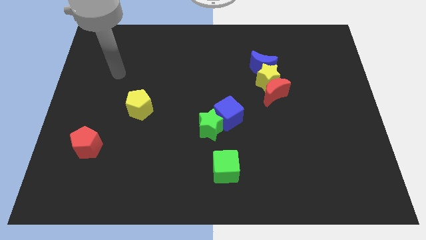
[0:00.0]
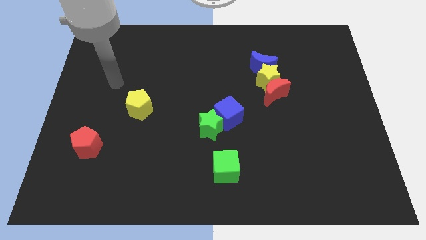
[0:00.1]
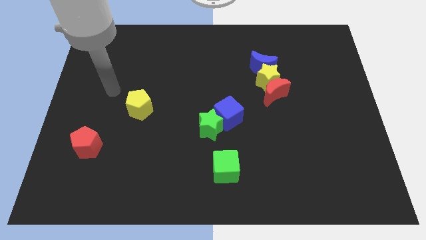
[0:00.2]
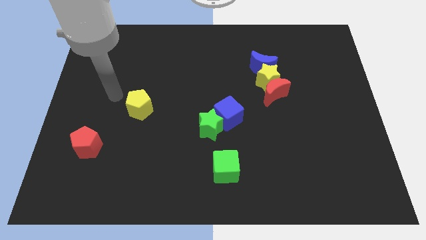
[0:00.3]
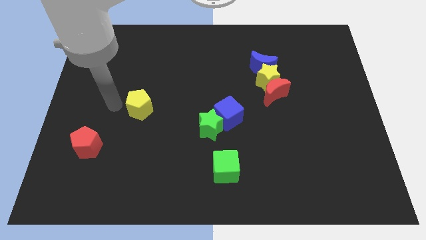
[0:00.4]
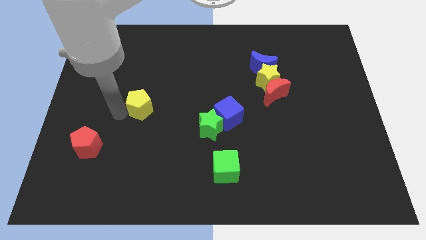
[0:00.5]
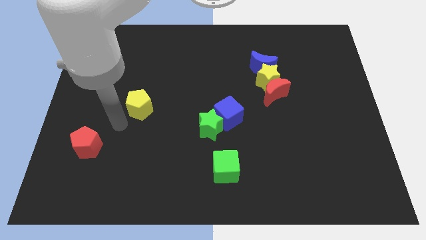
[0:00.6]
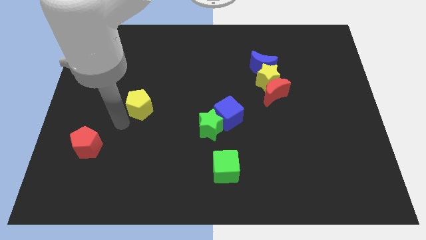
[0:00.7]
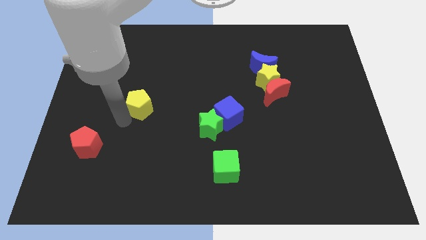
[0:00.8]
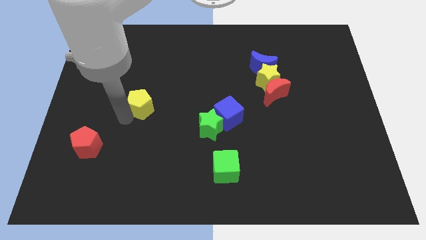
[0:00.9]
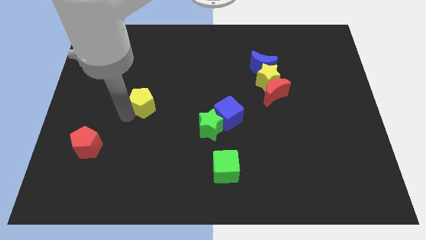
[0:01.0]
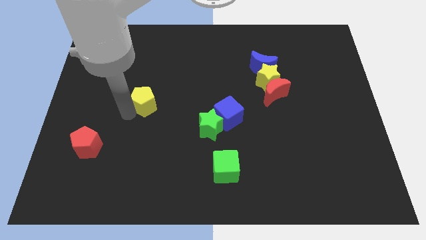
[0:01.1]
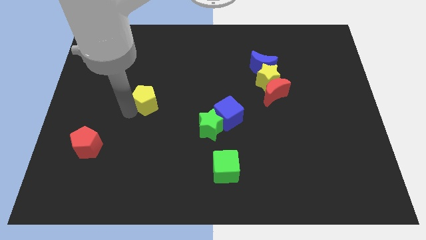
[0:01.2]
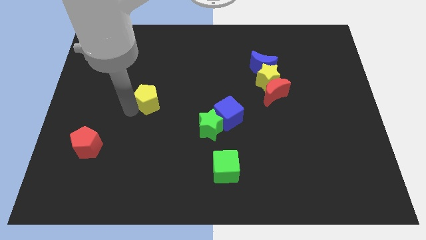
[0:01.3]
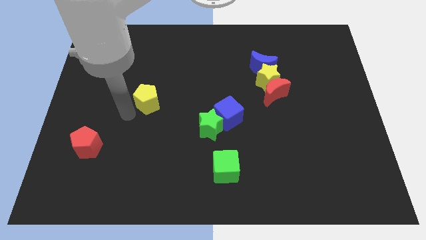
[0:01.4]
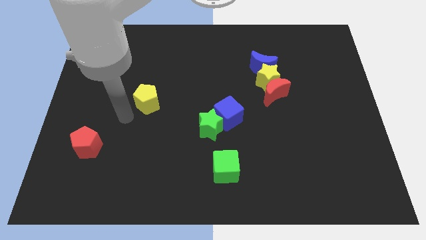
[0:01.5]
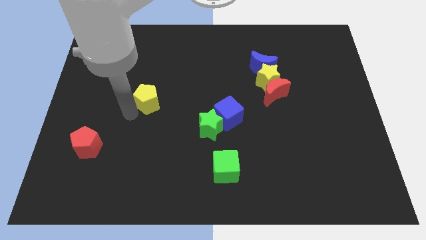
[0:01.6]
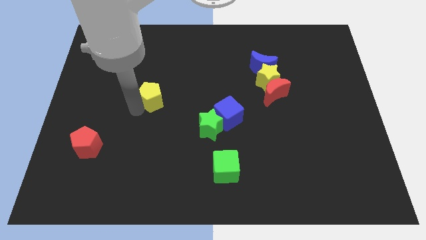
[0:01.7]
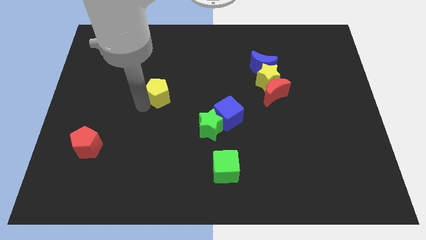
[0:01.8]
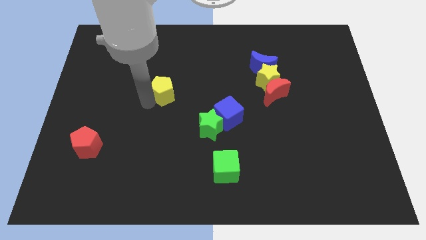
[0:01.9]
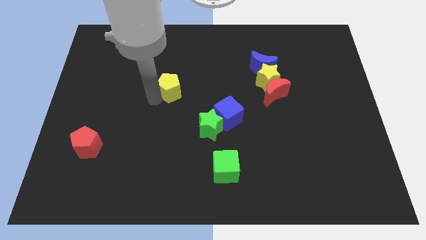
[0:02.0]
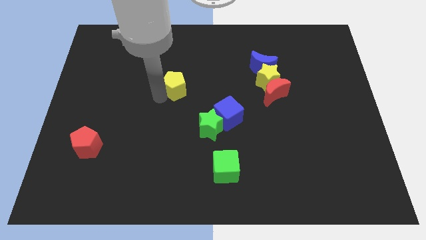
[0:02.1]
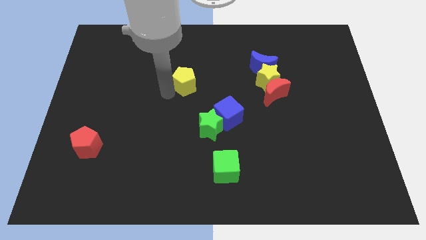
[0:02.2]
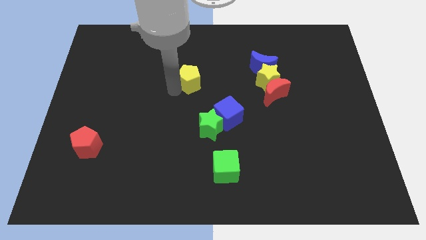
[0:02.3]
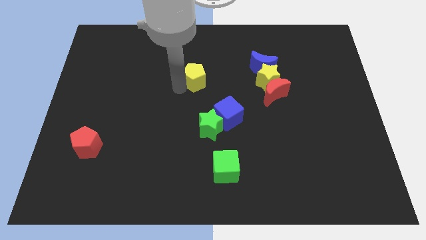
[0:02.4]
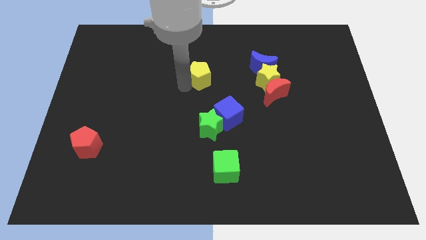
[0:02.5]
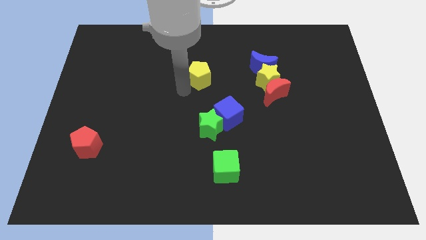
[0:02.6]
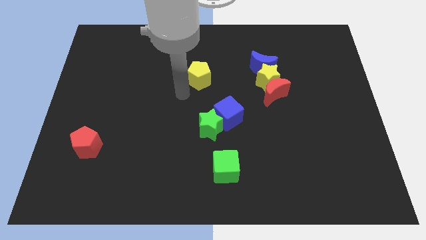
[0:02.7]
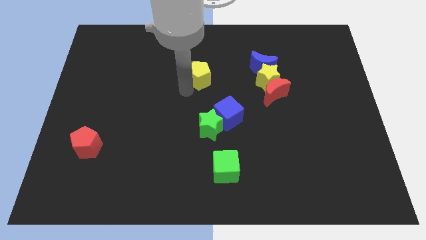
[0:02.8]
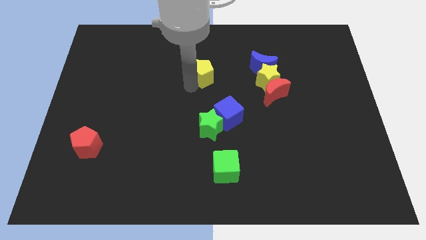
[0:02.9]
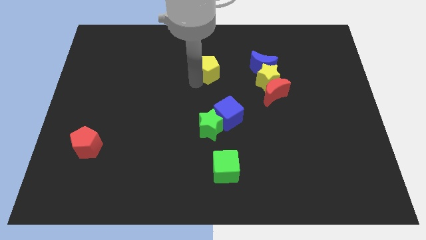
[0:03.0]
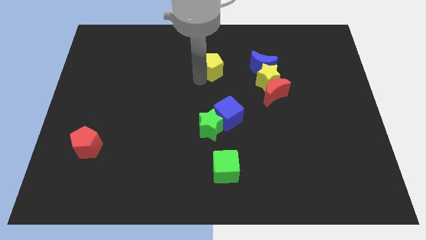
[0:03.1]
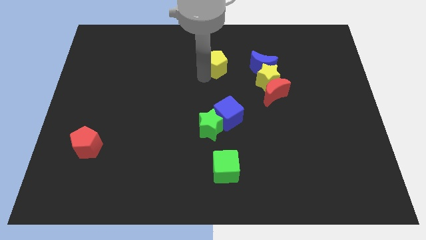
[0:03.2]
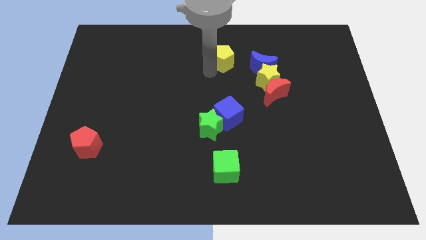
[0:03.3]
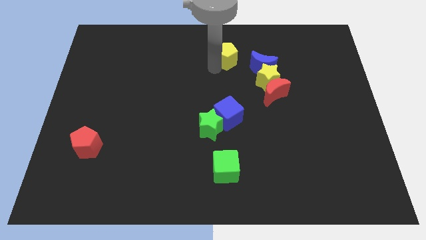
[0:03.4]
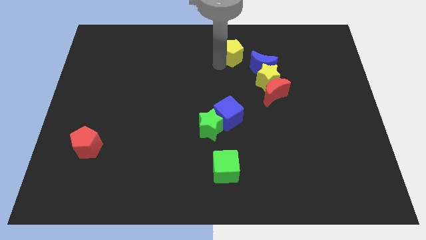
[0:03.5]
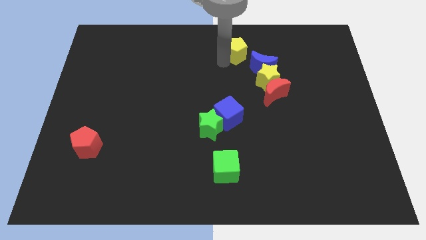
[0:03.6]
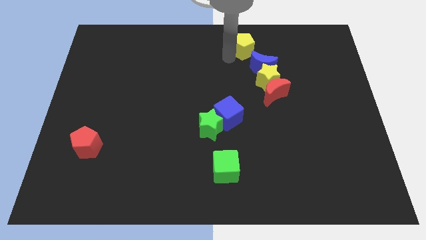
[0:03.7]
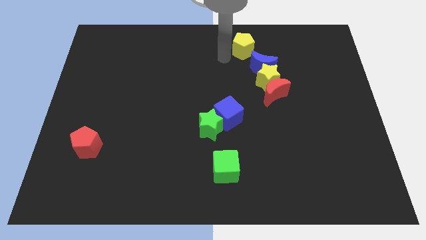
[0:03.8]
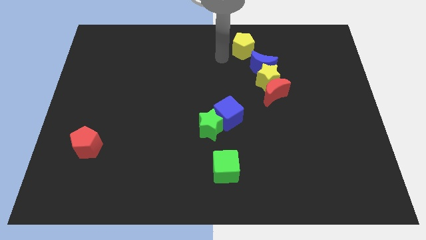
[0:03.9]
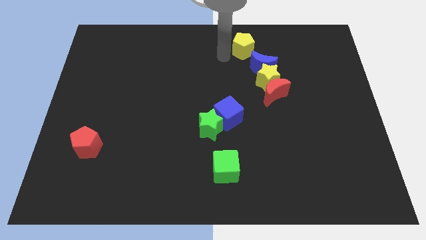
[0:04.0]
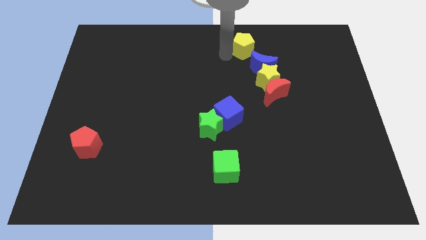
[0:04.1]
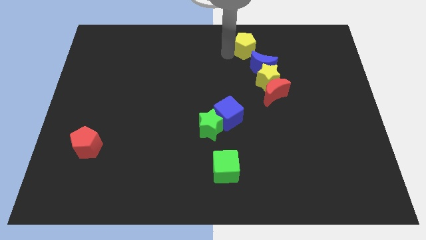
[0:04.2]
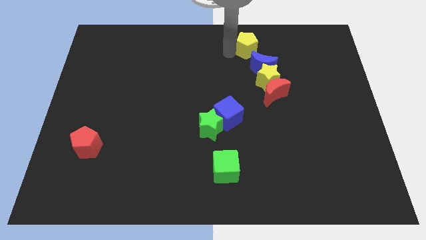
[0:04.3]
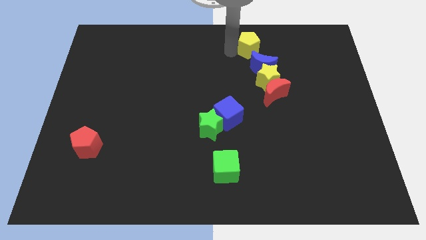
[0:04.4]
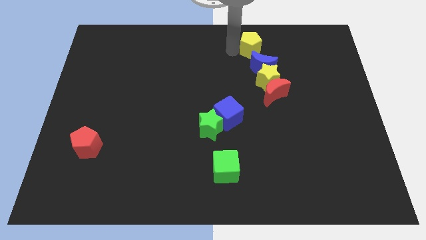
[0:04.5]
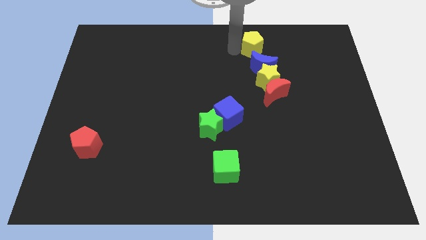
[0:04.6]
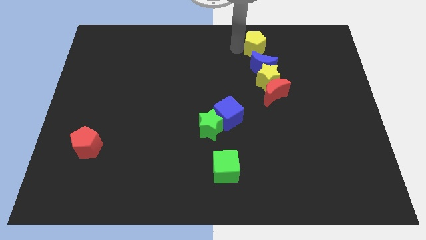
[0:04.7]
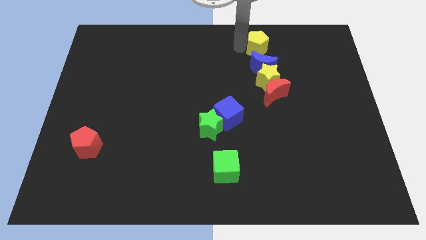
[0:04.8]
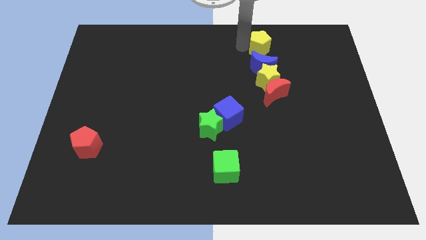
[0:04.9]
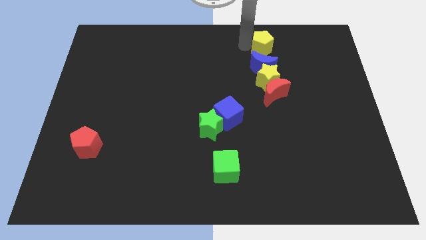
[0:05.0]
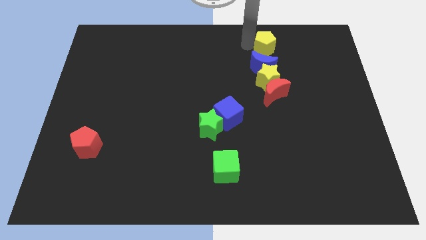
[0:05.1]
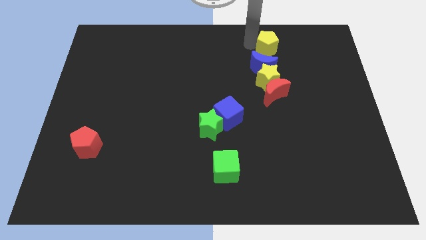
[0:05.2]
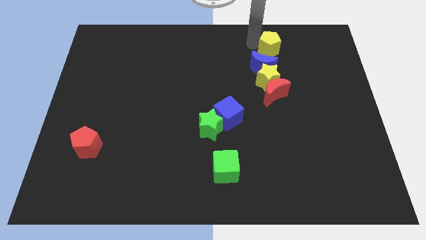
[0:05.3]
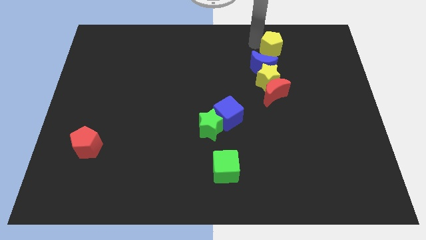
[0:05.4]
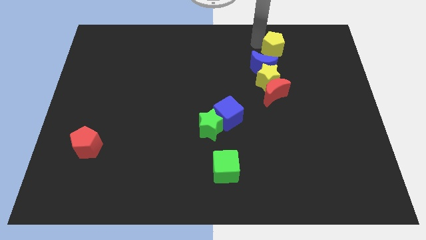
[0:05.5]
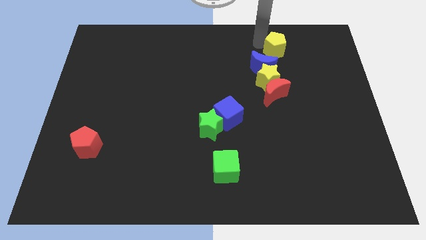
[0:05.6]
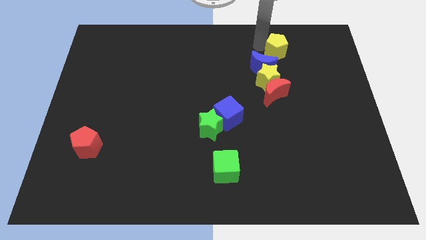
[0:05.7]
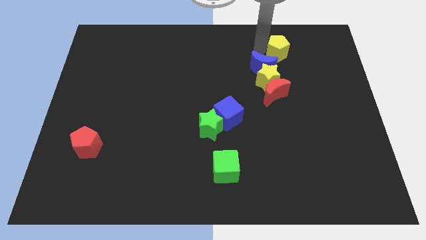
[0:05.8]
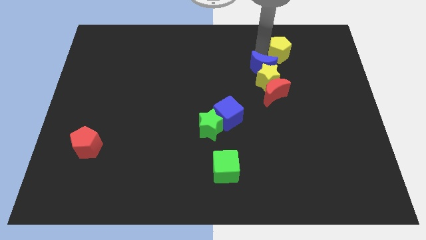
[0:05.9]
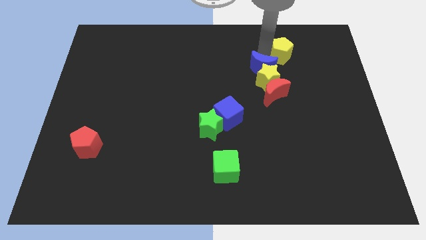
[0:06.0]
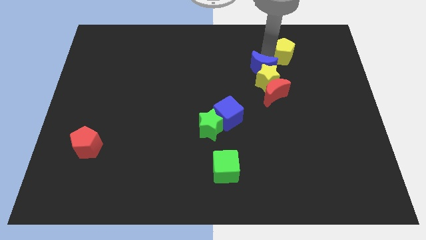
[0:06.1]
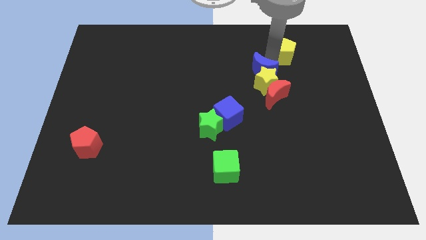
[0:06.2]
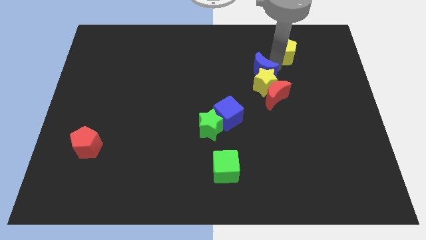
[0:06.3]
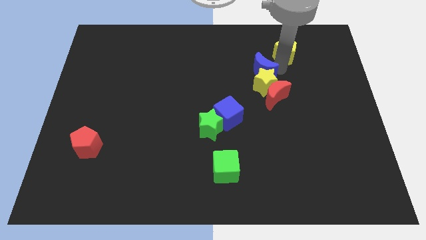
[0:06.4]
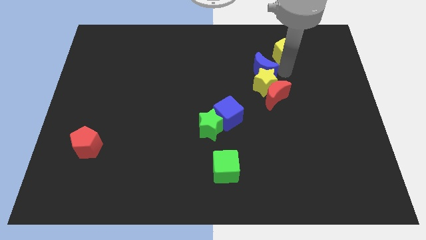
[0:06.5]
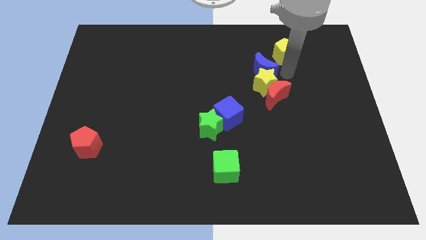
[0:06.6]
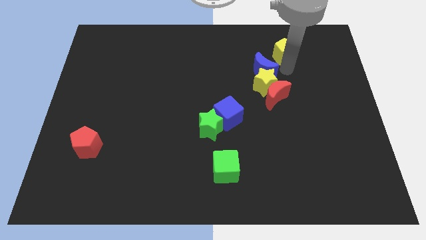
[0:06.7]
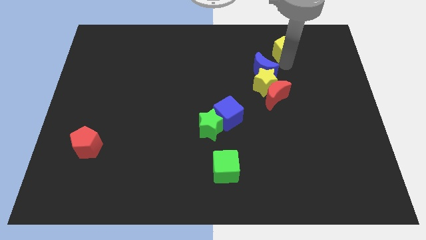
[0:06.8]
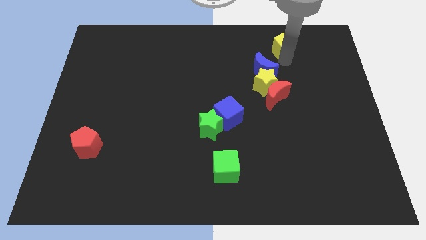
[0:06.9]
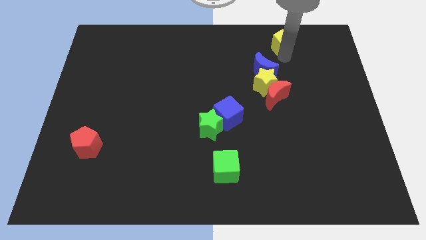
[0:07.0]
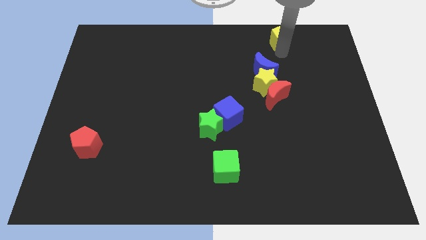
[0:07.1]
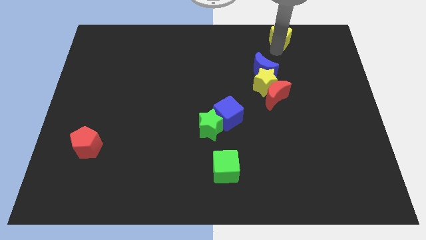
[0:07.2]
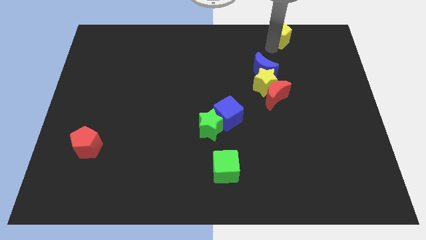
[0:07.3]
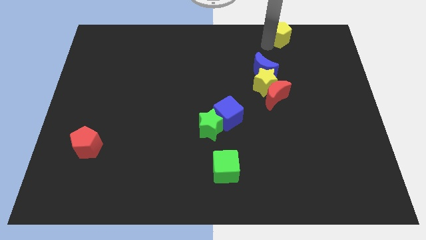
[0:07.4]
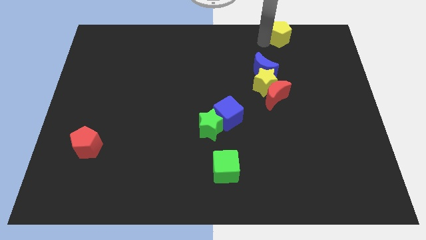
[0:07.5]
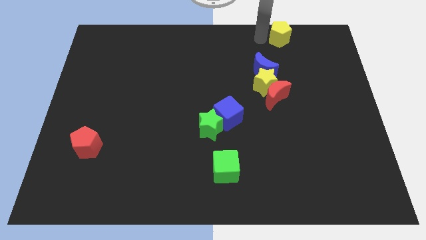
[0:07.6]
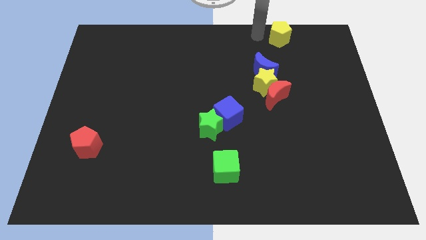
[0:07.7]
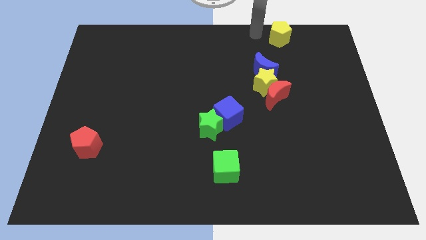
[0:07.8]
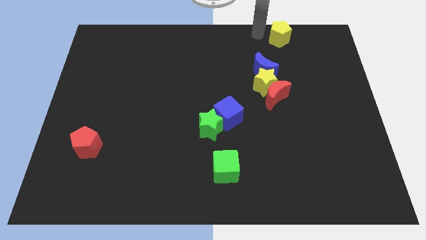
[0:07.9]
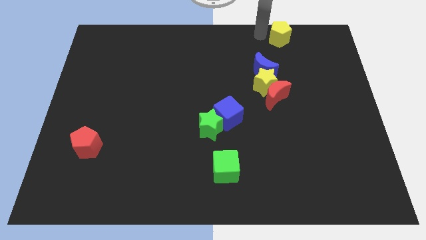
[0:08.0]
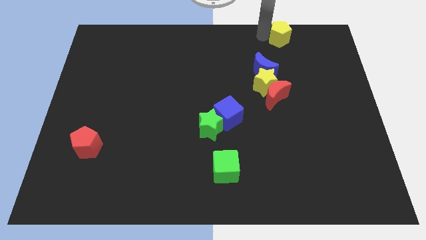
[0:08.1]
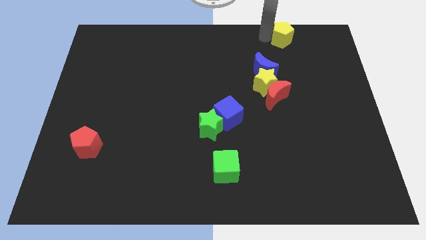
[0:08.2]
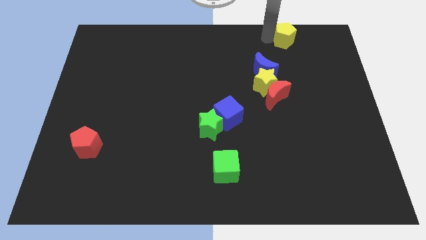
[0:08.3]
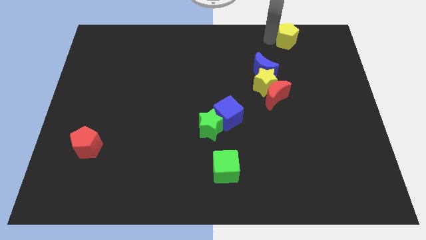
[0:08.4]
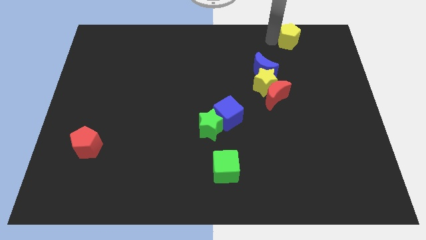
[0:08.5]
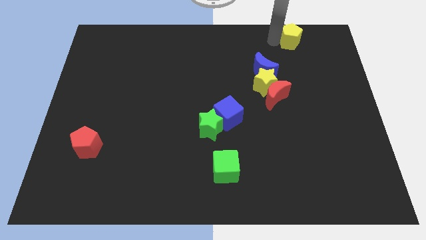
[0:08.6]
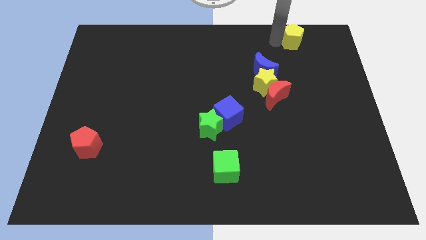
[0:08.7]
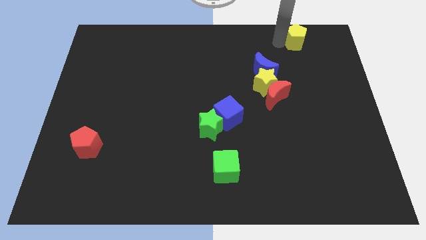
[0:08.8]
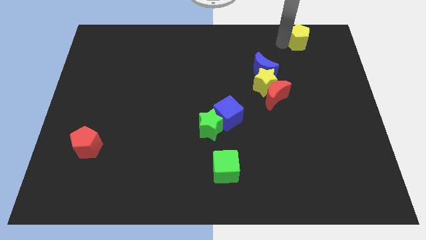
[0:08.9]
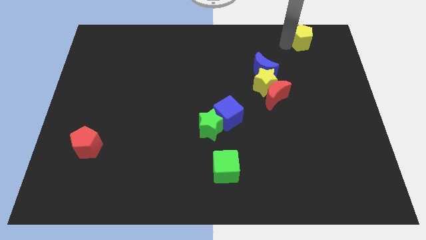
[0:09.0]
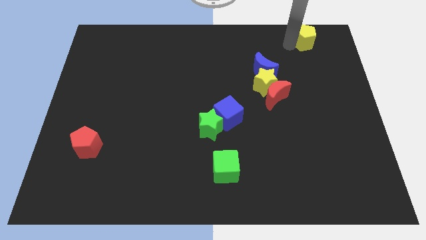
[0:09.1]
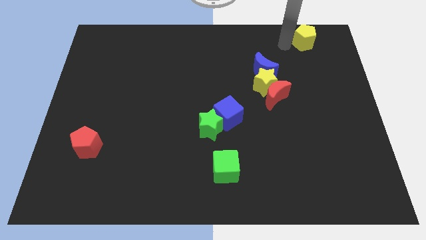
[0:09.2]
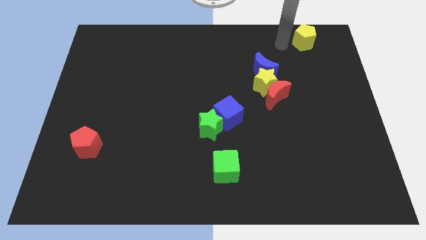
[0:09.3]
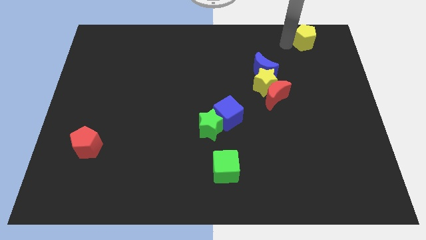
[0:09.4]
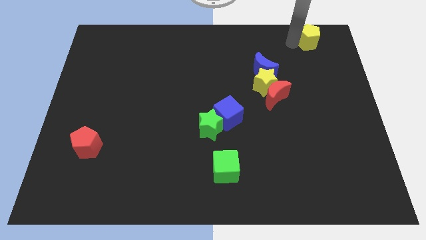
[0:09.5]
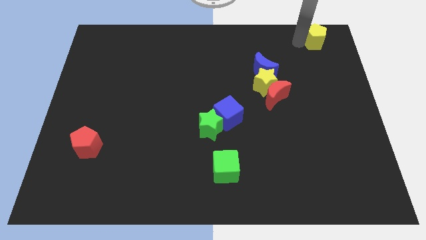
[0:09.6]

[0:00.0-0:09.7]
put the yellow pentagon to the top right
